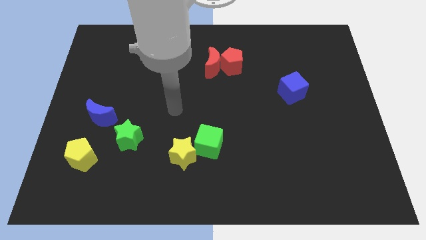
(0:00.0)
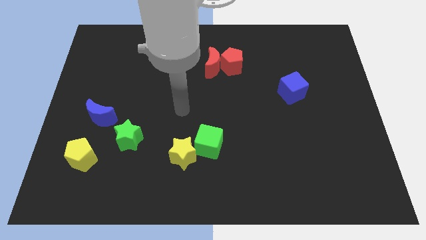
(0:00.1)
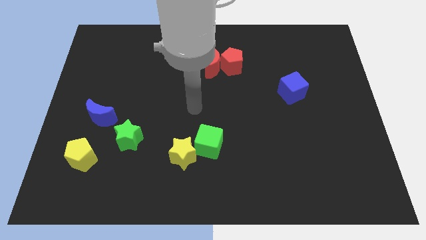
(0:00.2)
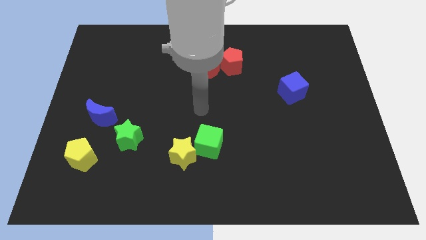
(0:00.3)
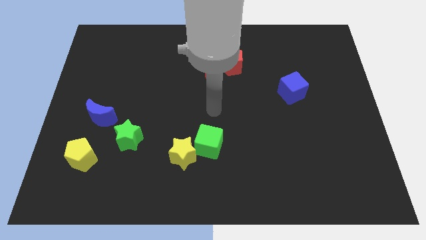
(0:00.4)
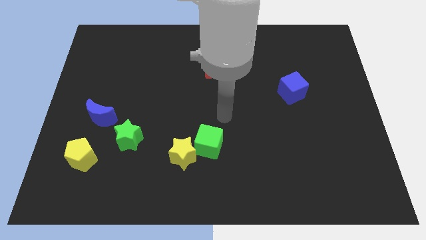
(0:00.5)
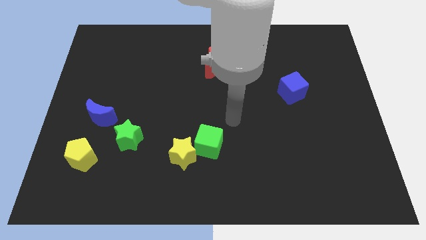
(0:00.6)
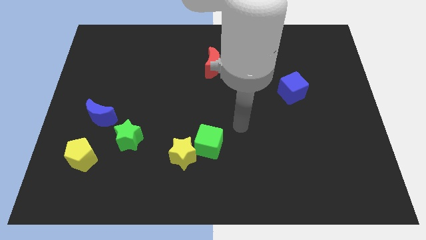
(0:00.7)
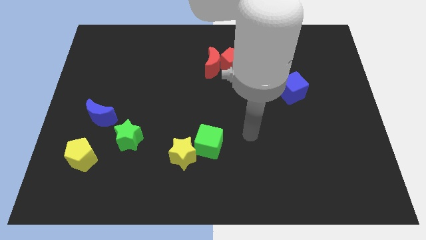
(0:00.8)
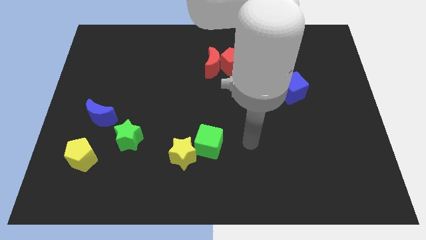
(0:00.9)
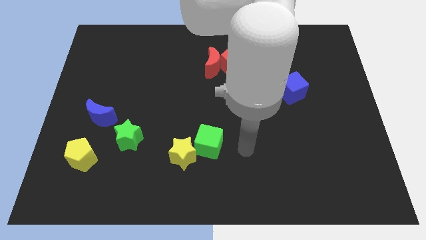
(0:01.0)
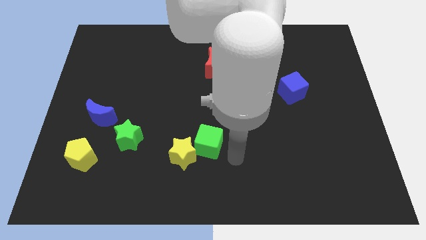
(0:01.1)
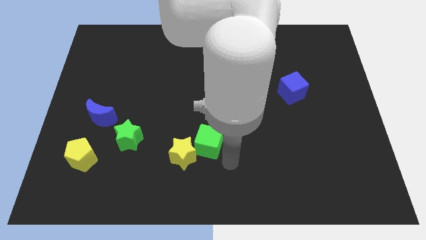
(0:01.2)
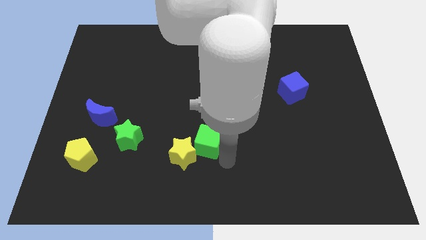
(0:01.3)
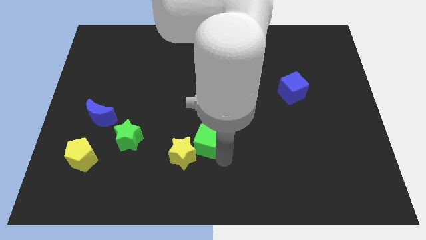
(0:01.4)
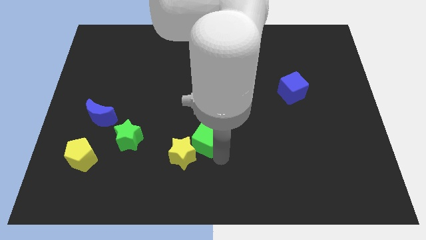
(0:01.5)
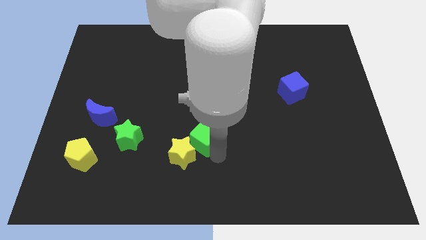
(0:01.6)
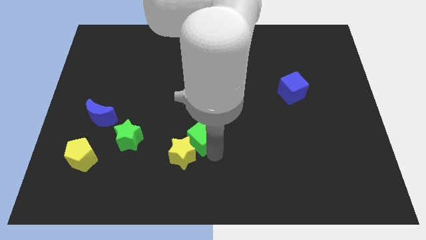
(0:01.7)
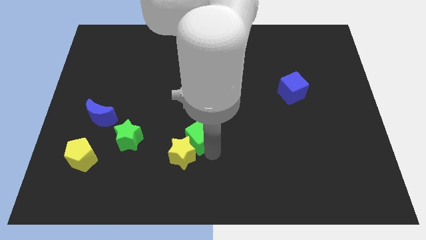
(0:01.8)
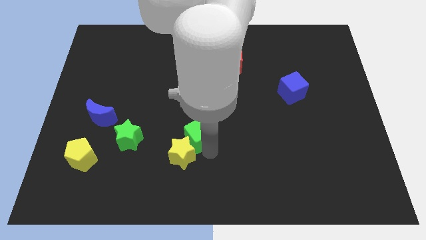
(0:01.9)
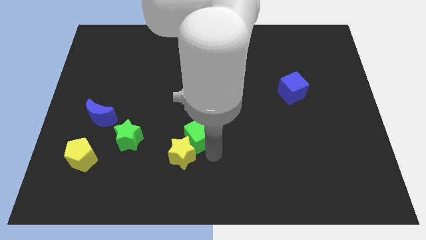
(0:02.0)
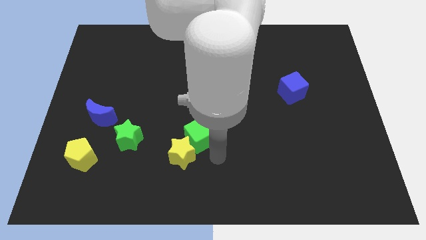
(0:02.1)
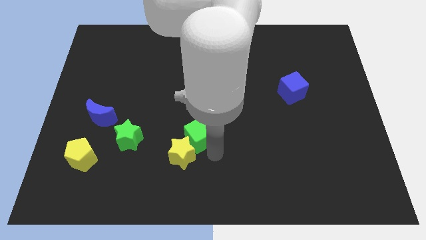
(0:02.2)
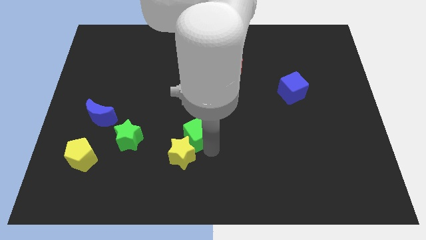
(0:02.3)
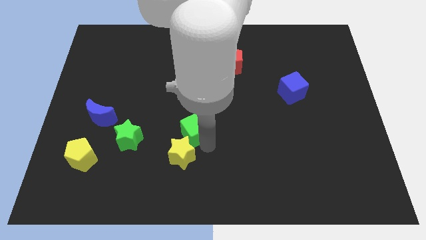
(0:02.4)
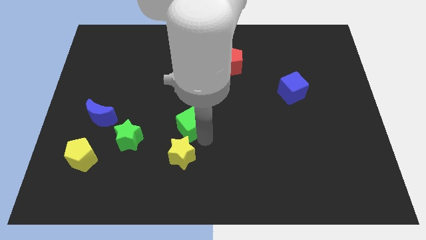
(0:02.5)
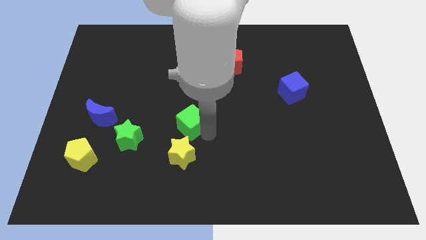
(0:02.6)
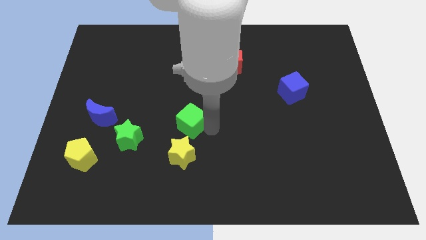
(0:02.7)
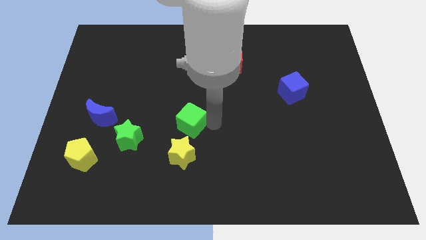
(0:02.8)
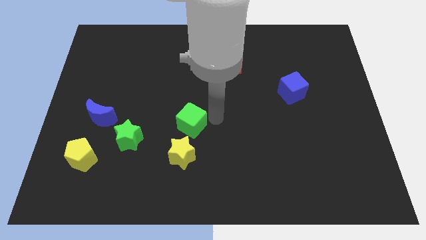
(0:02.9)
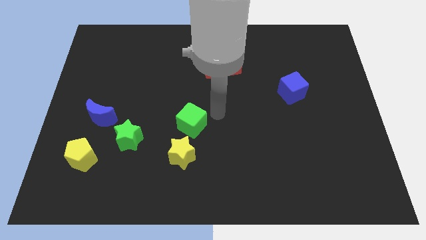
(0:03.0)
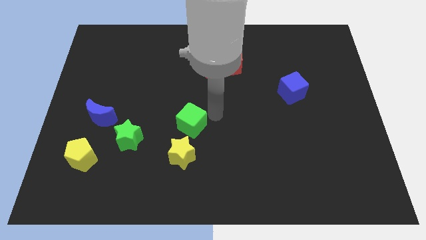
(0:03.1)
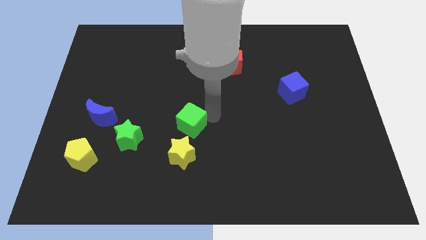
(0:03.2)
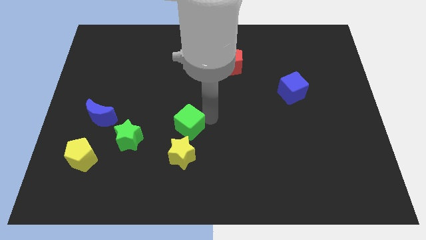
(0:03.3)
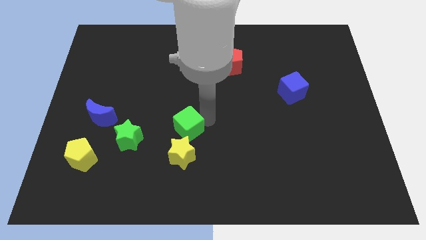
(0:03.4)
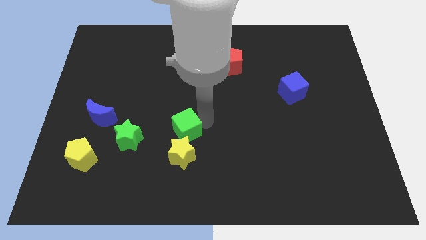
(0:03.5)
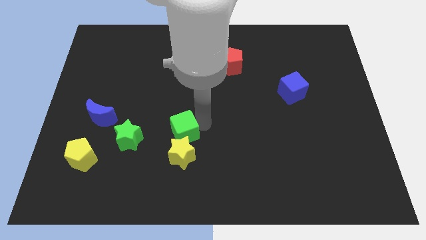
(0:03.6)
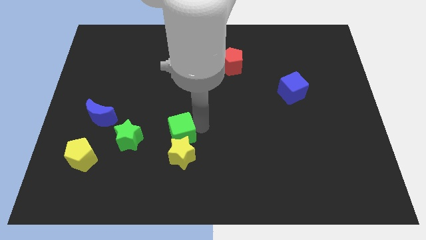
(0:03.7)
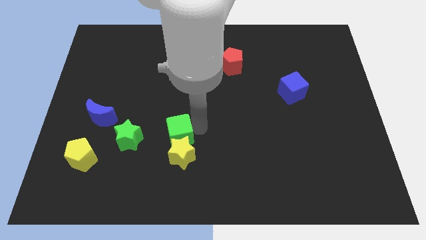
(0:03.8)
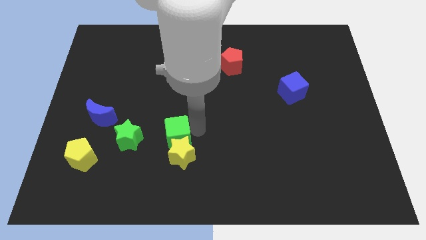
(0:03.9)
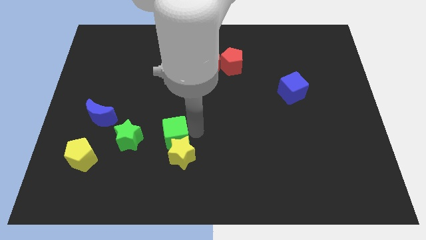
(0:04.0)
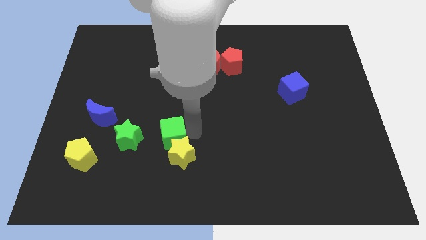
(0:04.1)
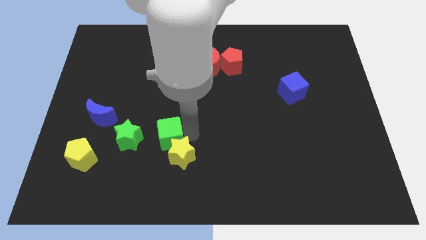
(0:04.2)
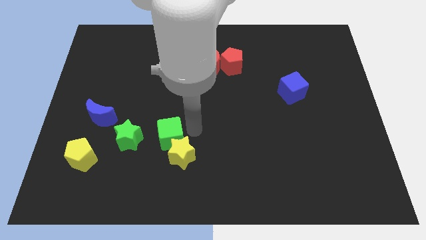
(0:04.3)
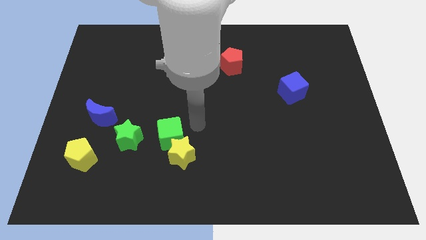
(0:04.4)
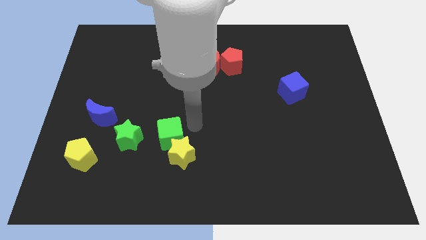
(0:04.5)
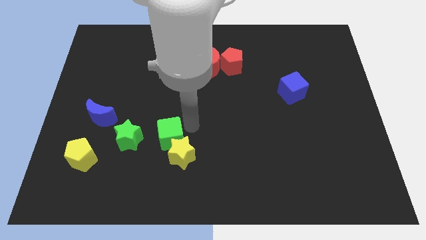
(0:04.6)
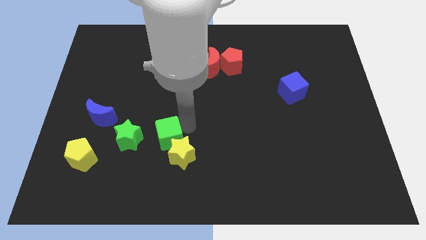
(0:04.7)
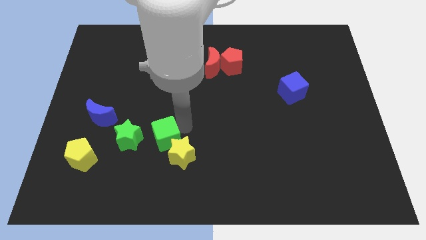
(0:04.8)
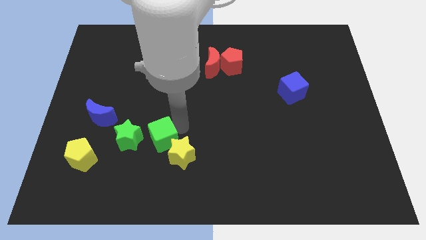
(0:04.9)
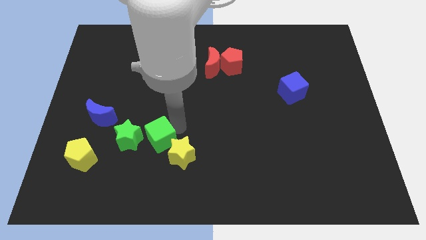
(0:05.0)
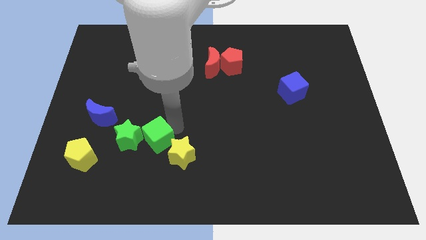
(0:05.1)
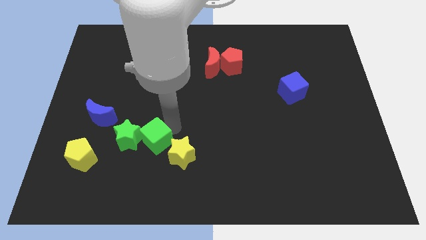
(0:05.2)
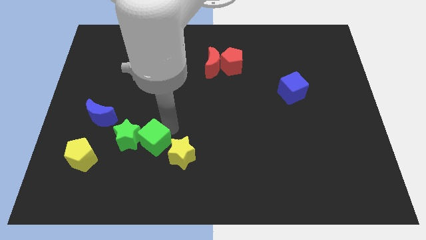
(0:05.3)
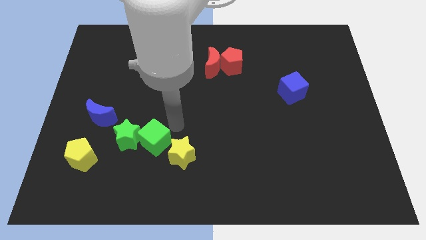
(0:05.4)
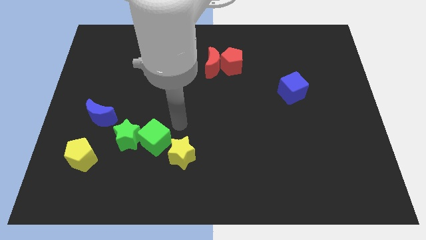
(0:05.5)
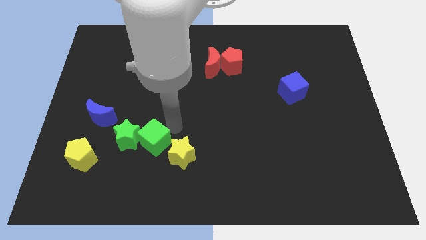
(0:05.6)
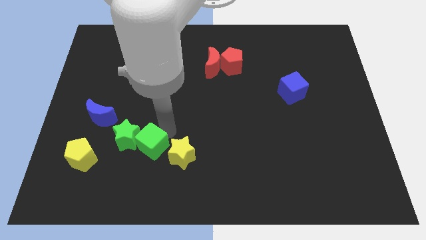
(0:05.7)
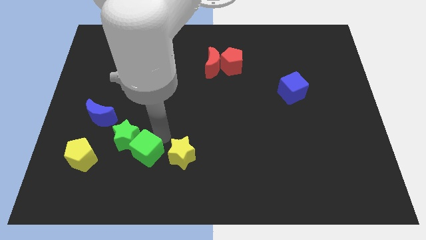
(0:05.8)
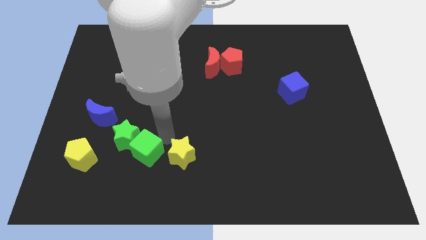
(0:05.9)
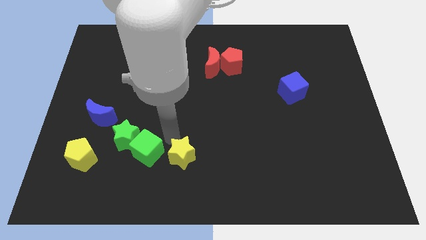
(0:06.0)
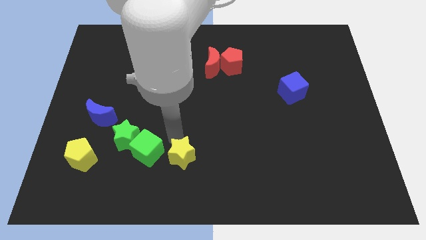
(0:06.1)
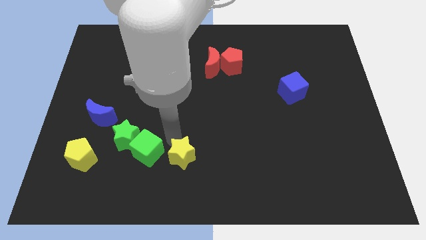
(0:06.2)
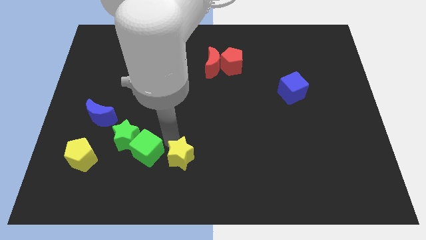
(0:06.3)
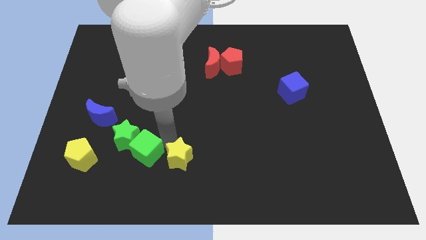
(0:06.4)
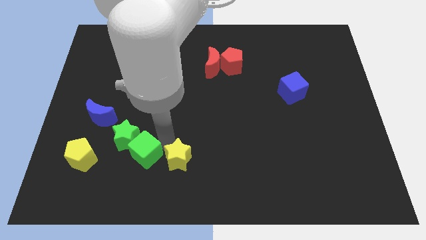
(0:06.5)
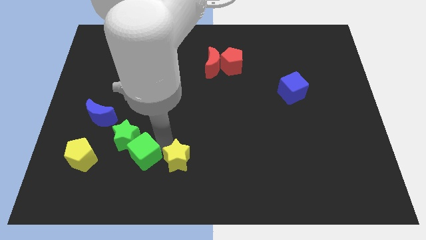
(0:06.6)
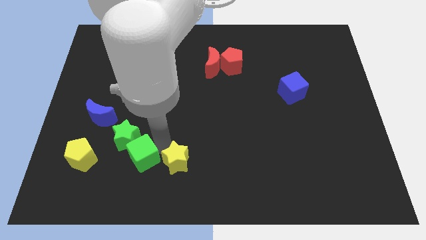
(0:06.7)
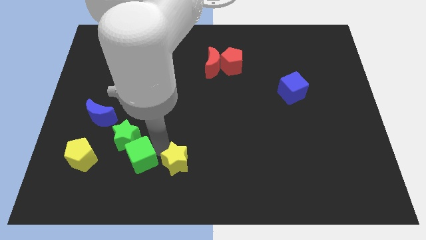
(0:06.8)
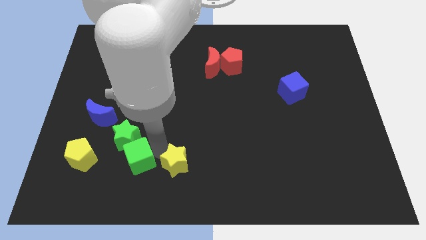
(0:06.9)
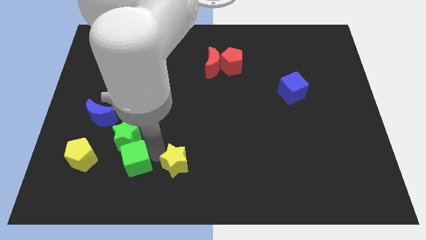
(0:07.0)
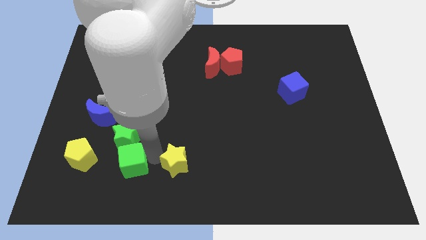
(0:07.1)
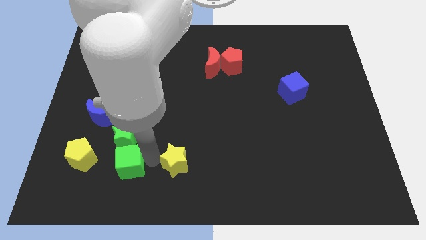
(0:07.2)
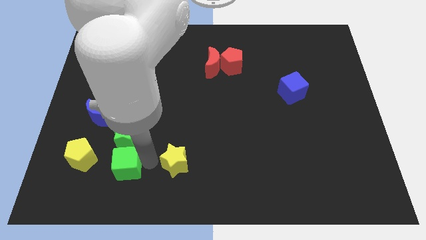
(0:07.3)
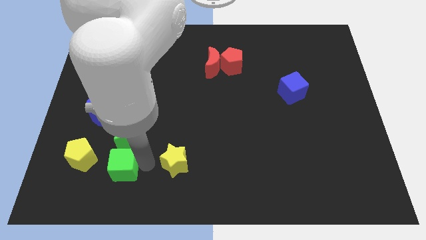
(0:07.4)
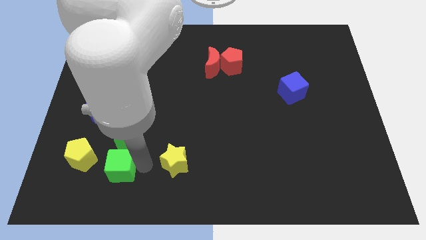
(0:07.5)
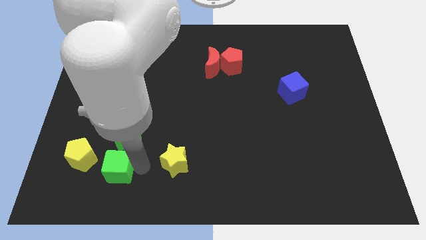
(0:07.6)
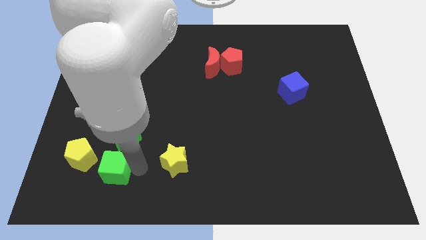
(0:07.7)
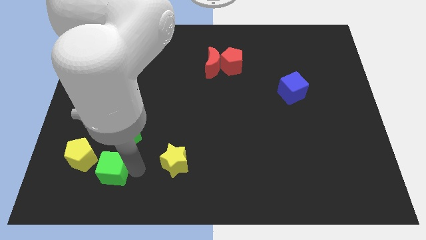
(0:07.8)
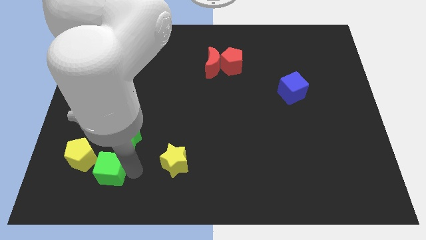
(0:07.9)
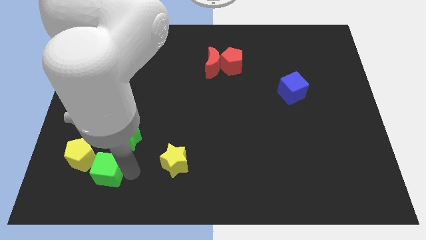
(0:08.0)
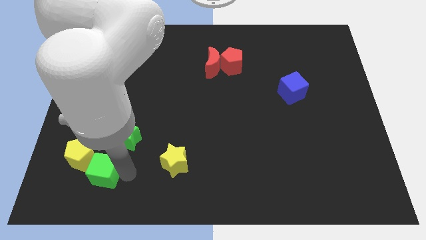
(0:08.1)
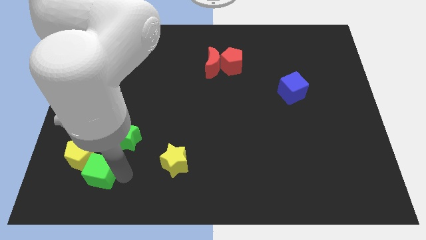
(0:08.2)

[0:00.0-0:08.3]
slide the green cube close to the yellow pentagon
